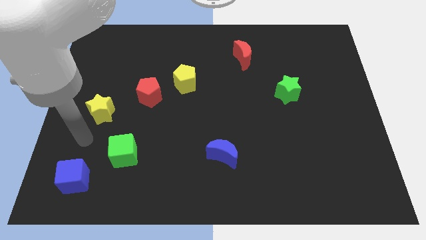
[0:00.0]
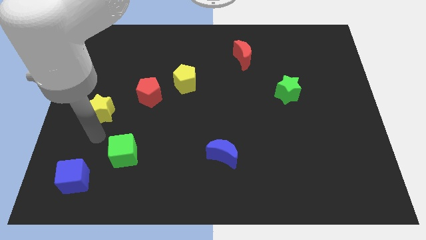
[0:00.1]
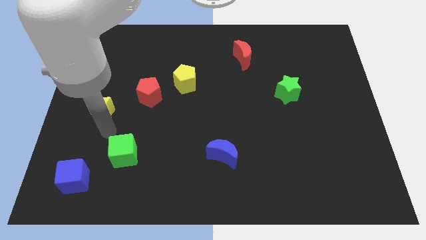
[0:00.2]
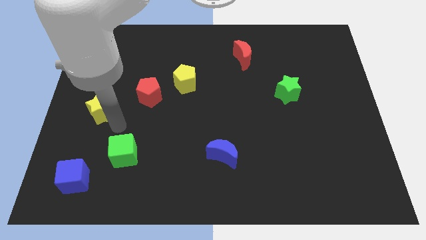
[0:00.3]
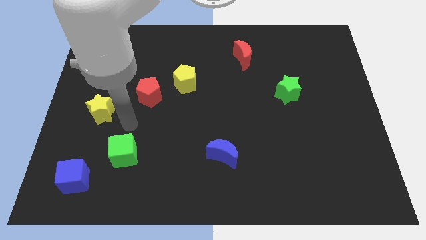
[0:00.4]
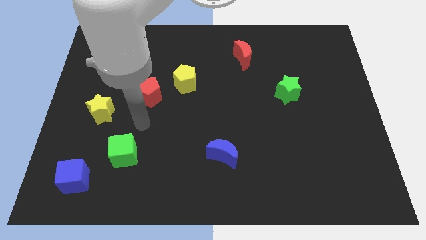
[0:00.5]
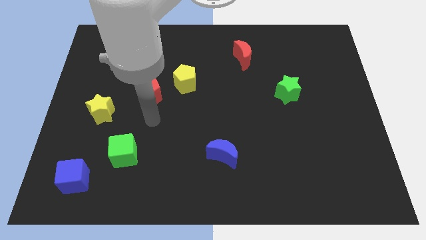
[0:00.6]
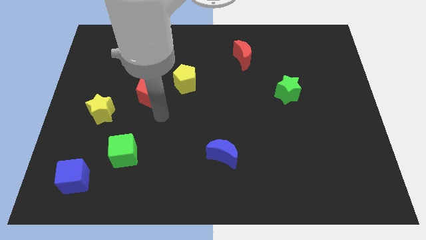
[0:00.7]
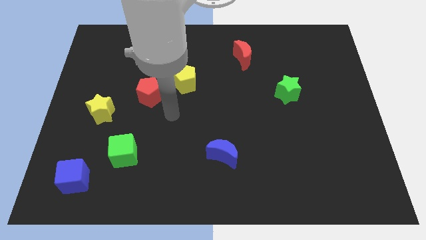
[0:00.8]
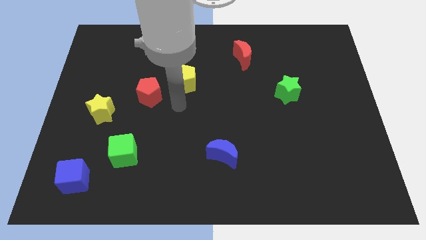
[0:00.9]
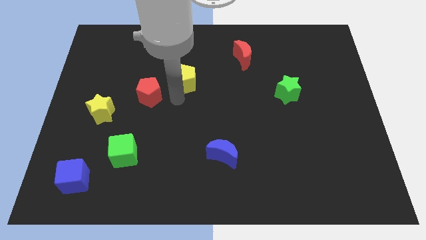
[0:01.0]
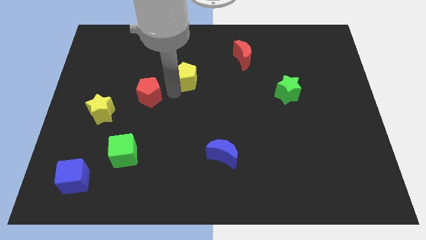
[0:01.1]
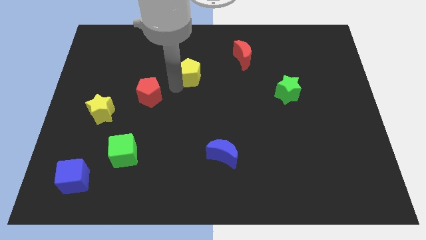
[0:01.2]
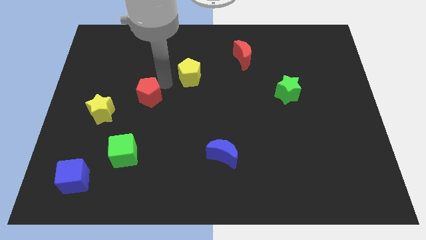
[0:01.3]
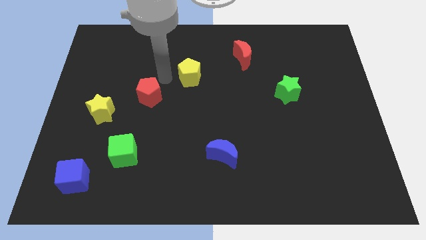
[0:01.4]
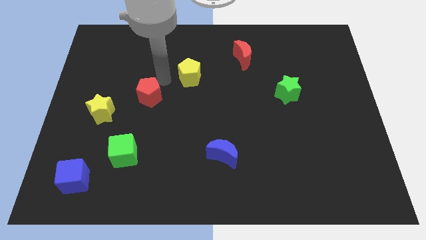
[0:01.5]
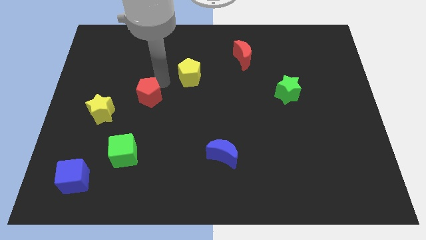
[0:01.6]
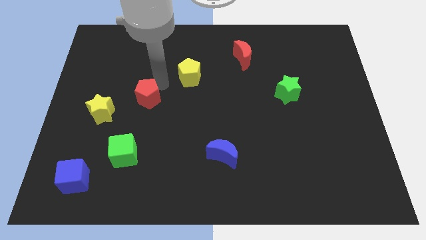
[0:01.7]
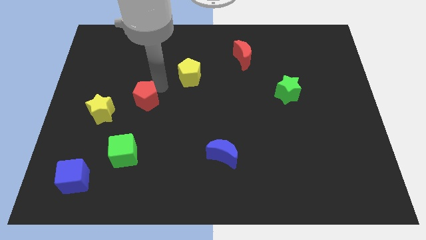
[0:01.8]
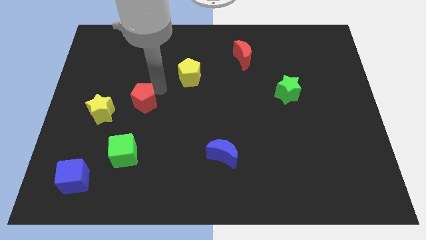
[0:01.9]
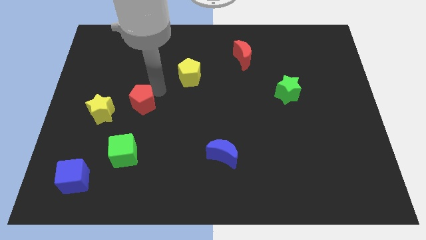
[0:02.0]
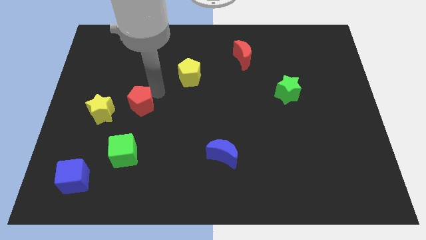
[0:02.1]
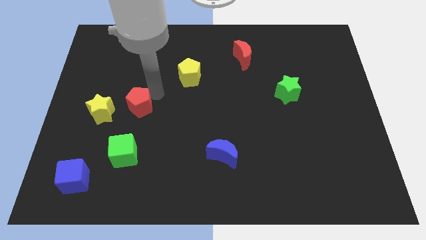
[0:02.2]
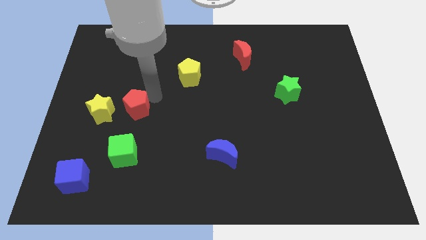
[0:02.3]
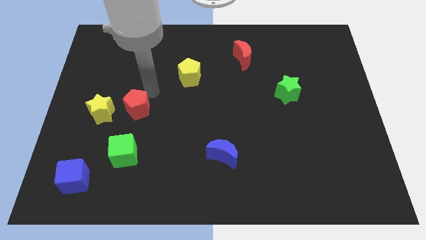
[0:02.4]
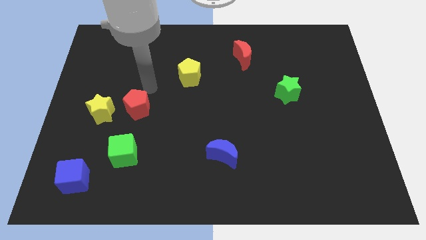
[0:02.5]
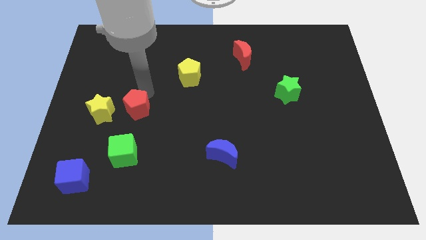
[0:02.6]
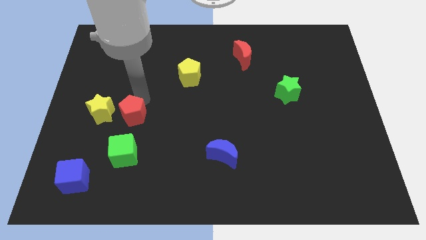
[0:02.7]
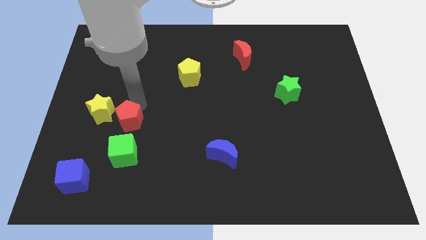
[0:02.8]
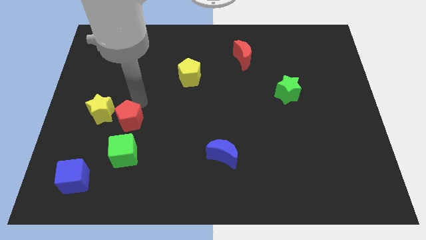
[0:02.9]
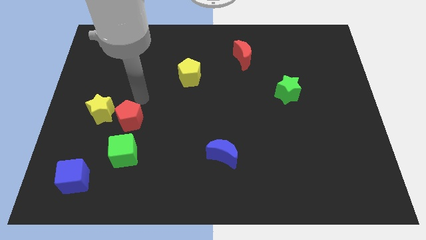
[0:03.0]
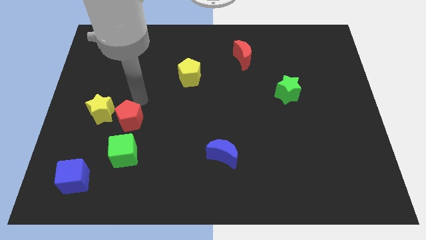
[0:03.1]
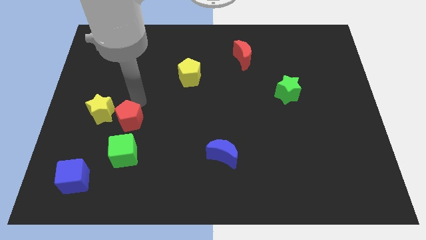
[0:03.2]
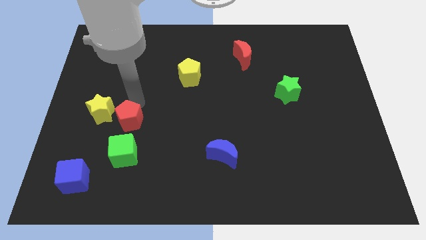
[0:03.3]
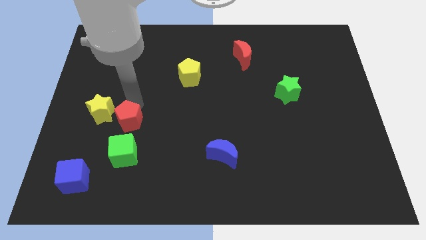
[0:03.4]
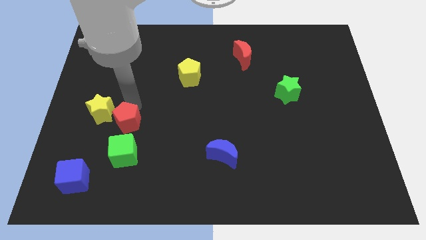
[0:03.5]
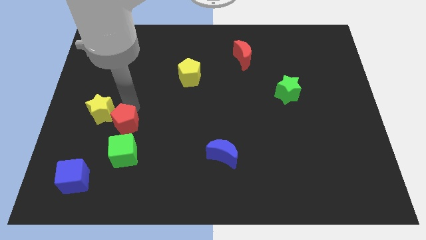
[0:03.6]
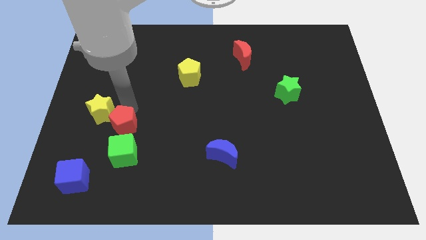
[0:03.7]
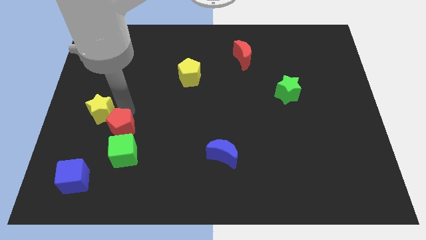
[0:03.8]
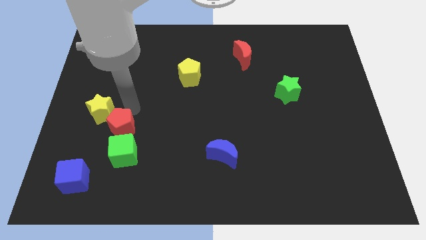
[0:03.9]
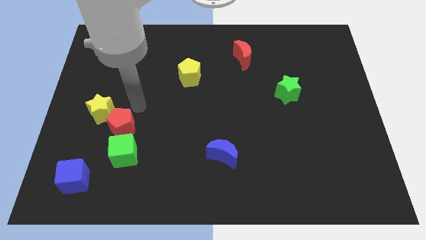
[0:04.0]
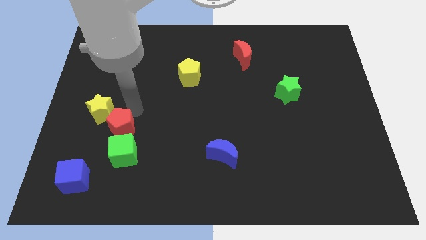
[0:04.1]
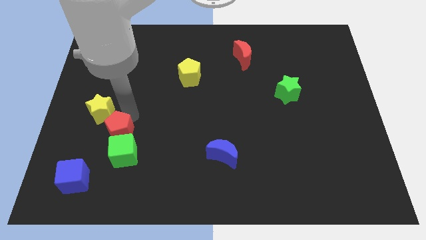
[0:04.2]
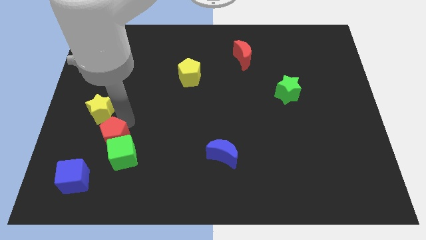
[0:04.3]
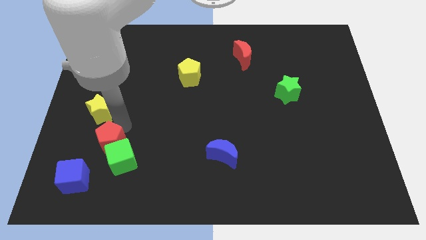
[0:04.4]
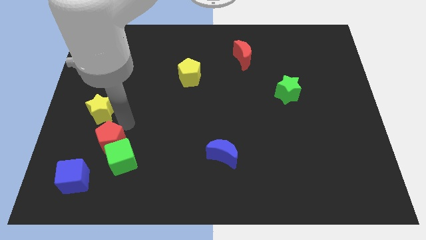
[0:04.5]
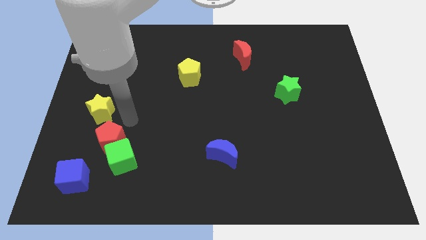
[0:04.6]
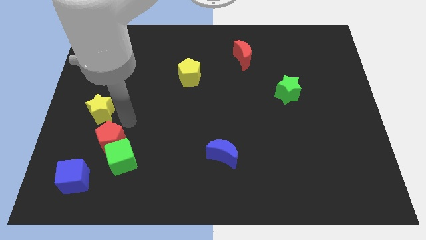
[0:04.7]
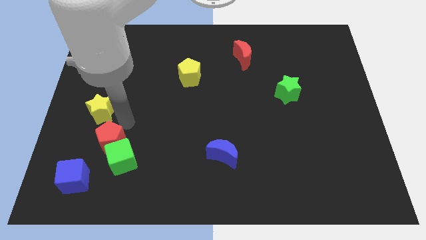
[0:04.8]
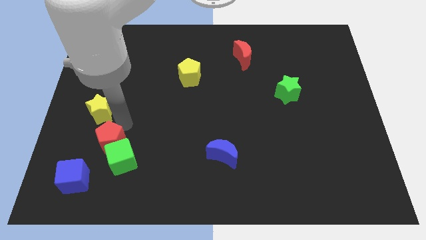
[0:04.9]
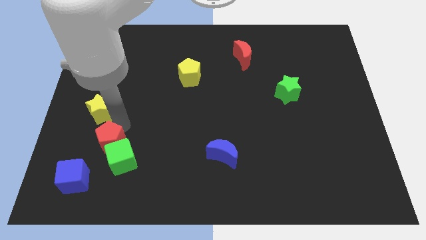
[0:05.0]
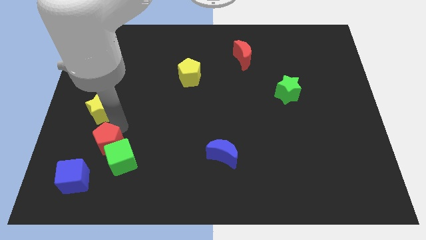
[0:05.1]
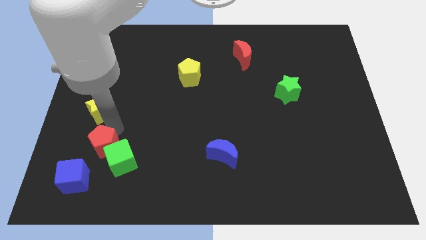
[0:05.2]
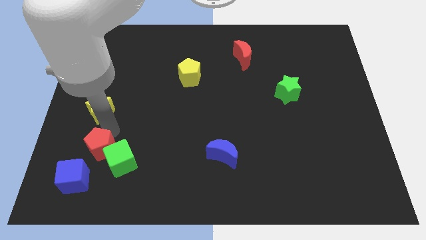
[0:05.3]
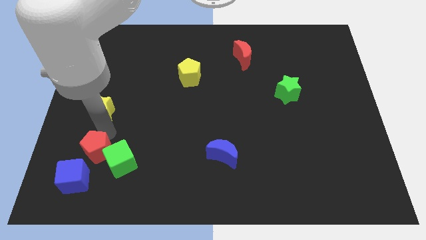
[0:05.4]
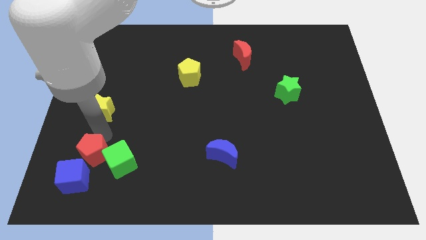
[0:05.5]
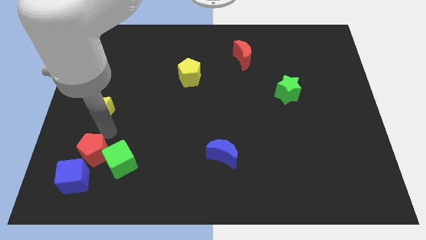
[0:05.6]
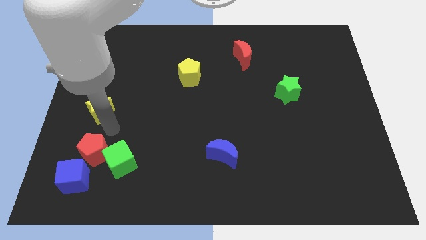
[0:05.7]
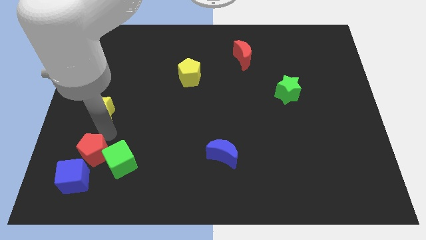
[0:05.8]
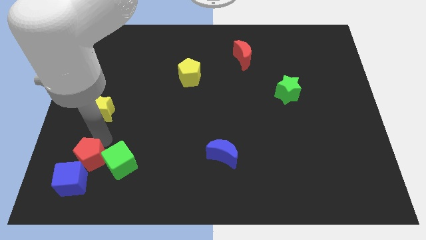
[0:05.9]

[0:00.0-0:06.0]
push the red pentagon towards the blue cube

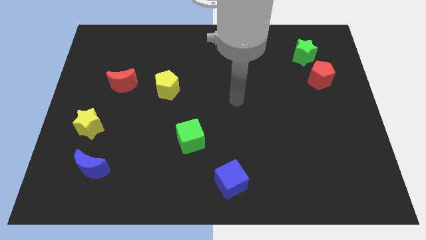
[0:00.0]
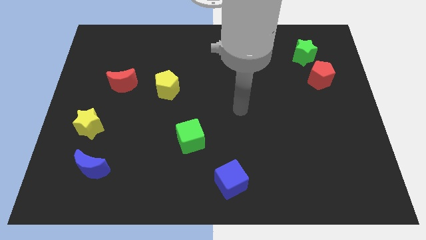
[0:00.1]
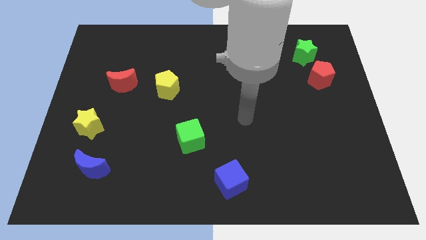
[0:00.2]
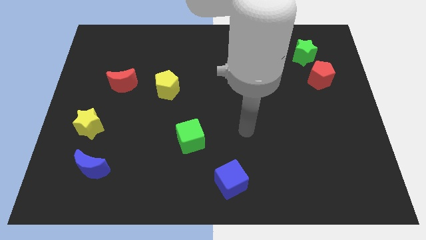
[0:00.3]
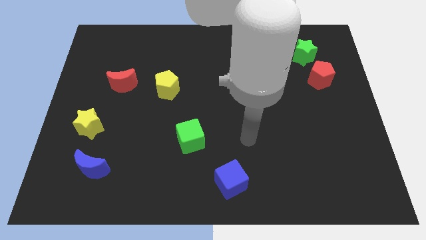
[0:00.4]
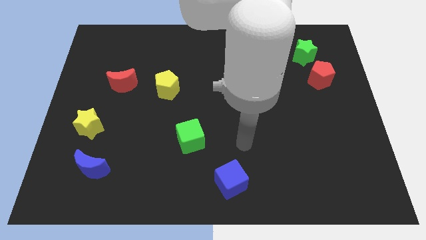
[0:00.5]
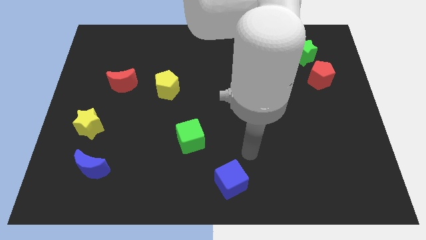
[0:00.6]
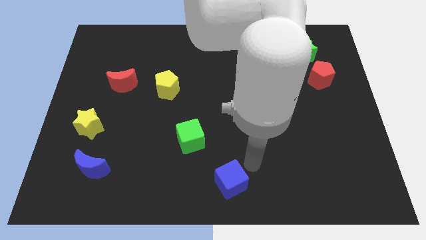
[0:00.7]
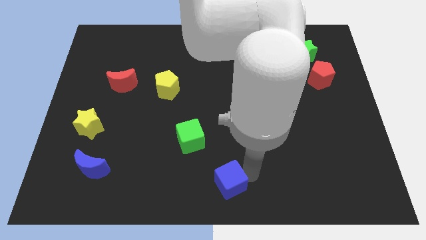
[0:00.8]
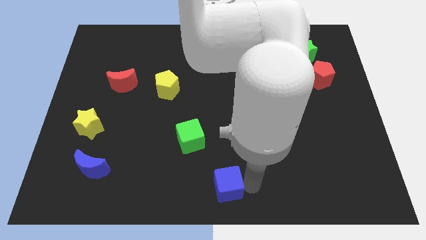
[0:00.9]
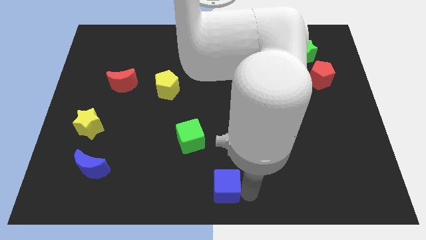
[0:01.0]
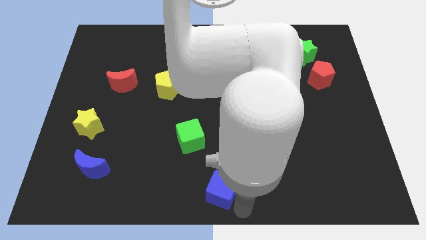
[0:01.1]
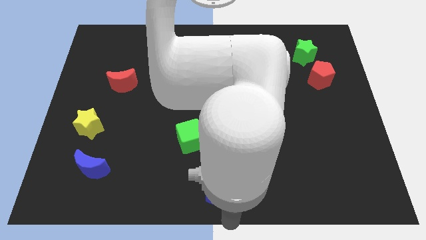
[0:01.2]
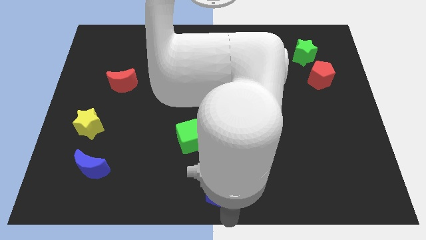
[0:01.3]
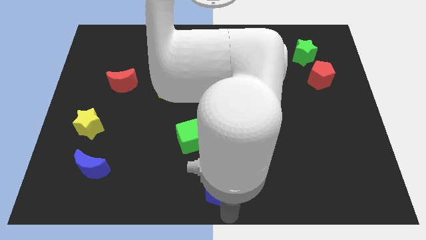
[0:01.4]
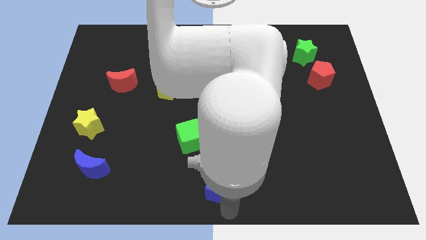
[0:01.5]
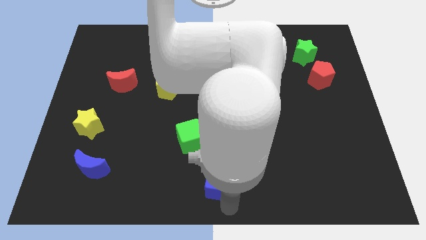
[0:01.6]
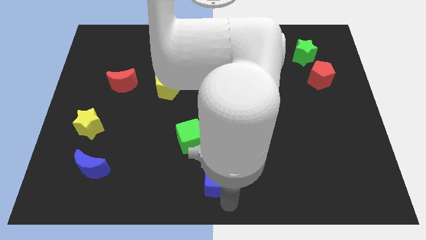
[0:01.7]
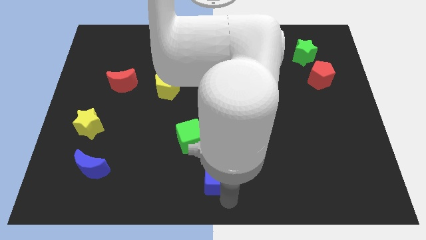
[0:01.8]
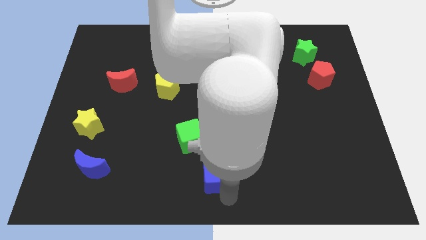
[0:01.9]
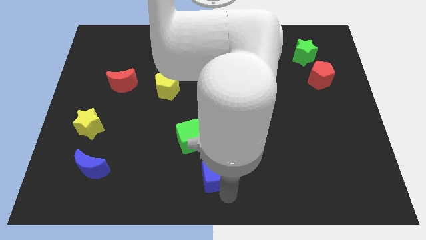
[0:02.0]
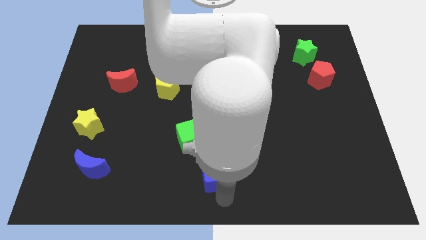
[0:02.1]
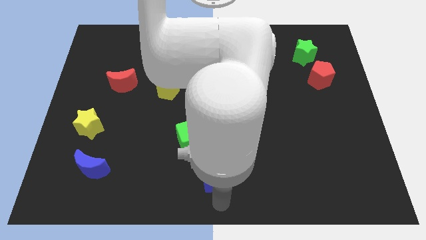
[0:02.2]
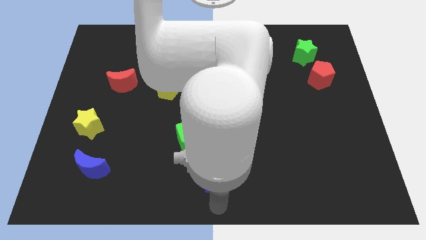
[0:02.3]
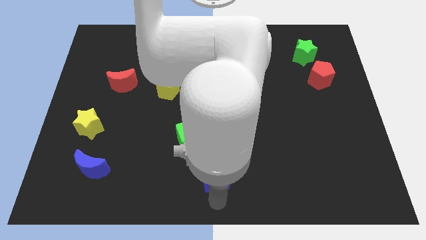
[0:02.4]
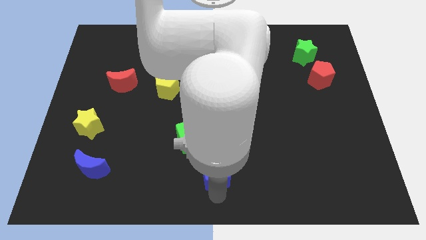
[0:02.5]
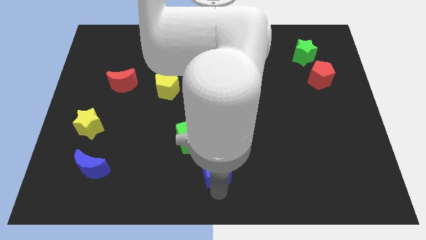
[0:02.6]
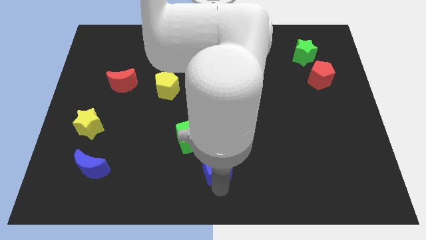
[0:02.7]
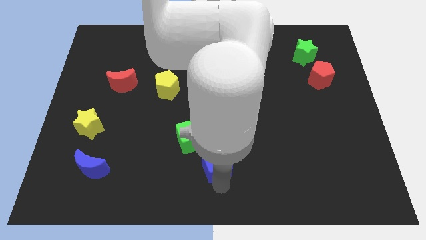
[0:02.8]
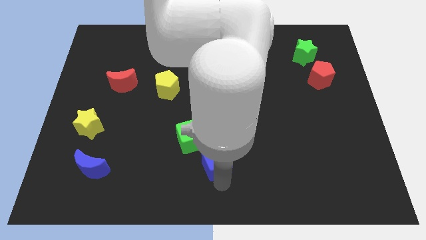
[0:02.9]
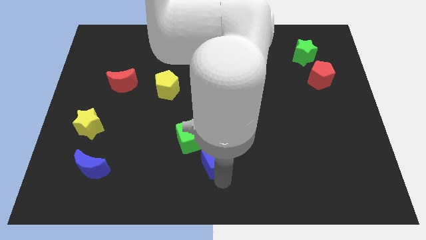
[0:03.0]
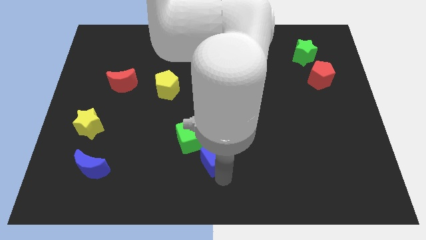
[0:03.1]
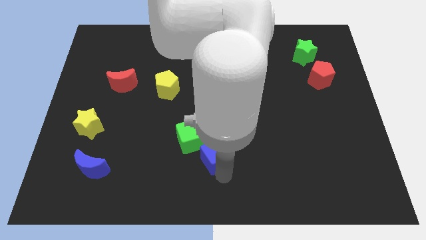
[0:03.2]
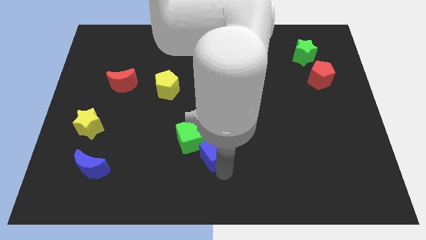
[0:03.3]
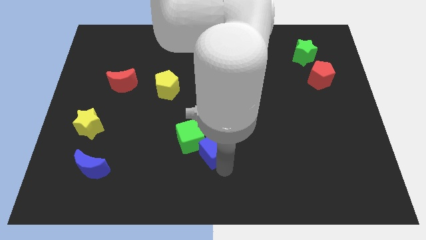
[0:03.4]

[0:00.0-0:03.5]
put the blue cube close to the green cube
